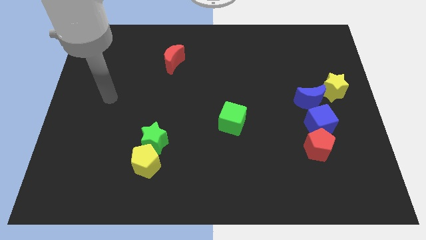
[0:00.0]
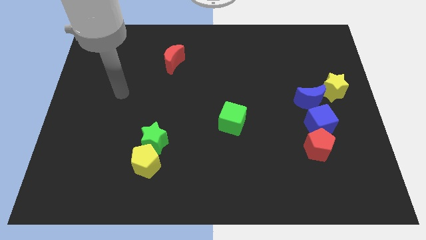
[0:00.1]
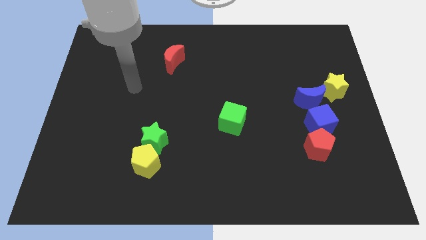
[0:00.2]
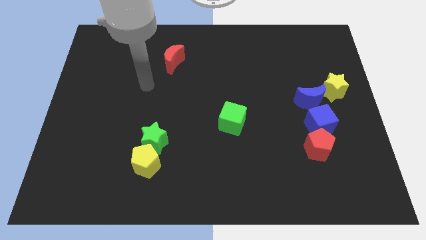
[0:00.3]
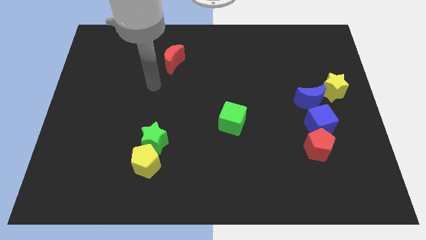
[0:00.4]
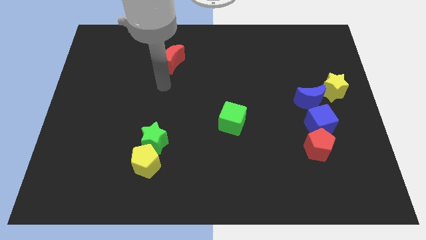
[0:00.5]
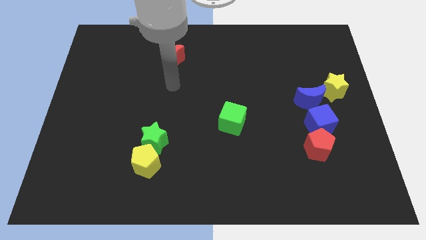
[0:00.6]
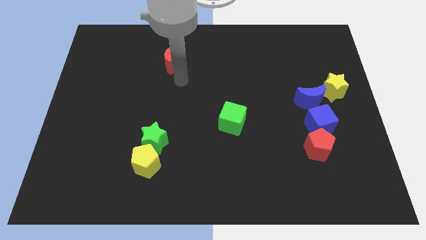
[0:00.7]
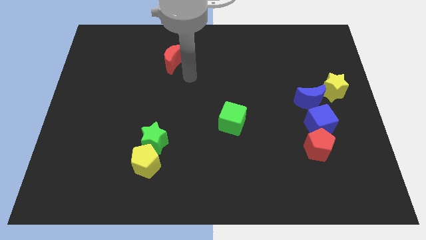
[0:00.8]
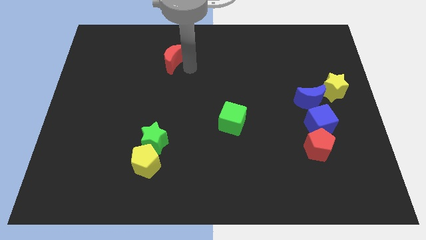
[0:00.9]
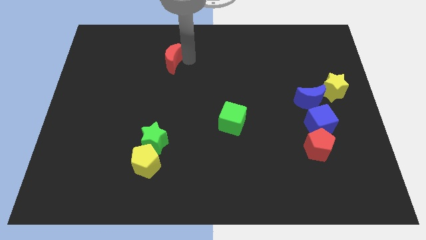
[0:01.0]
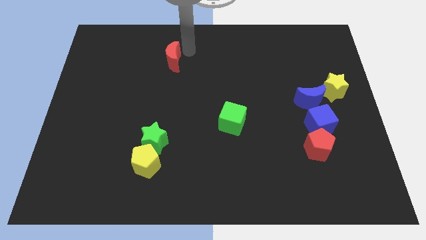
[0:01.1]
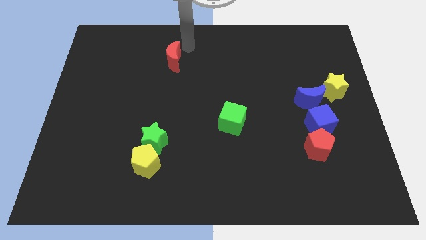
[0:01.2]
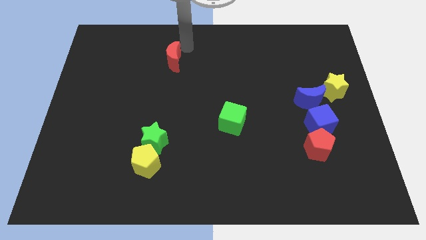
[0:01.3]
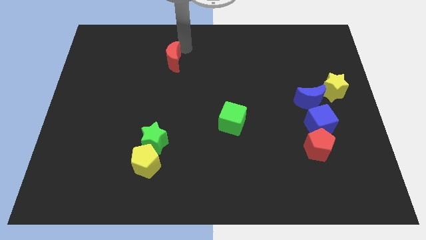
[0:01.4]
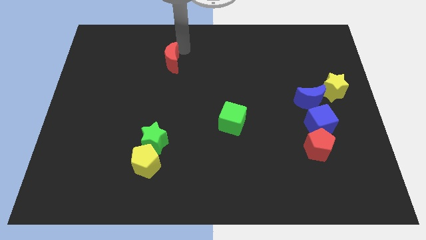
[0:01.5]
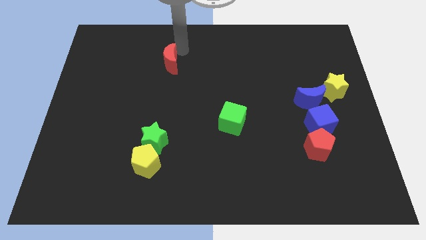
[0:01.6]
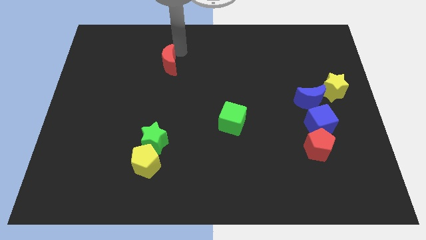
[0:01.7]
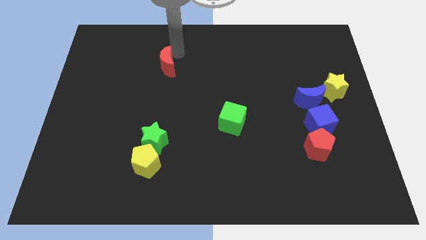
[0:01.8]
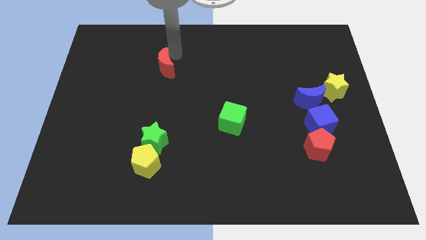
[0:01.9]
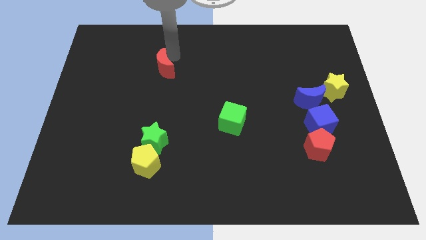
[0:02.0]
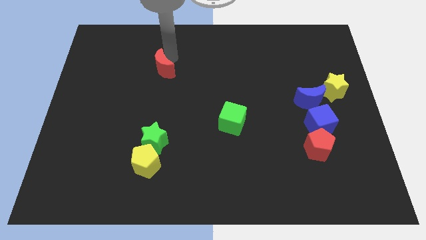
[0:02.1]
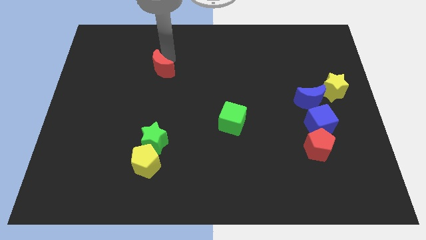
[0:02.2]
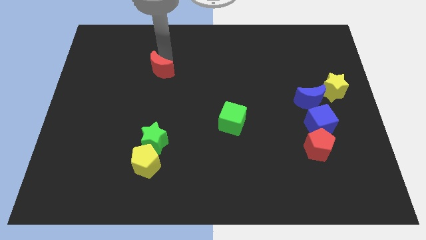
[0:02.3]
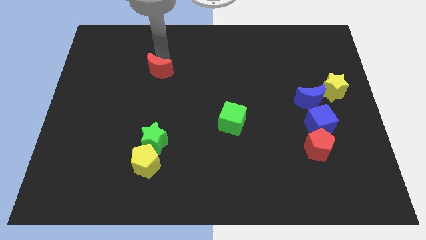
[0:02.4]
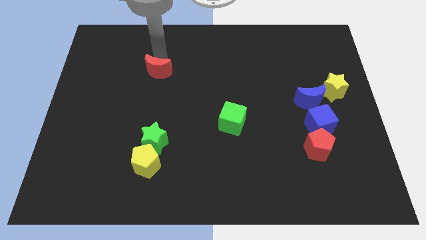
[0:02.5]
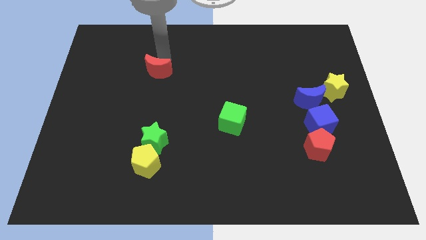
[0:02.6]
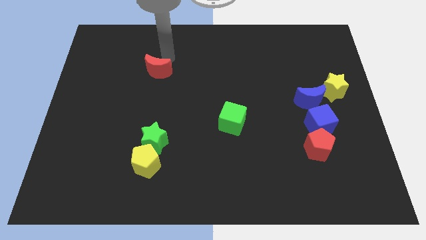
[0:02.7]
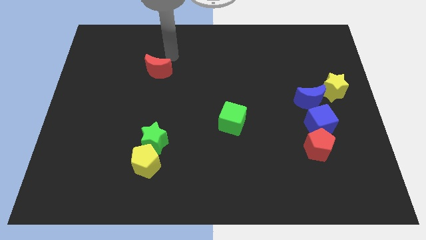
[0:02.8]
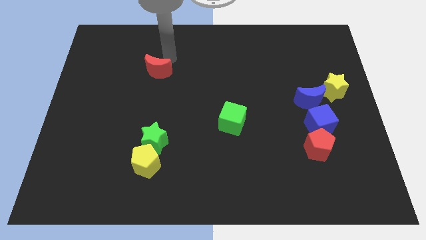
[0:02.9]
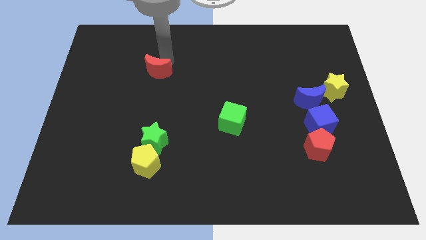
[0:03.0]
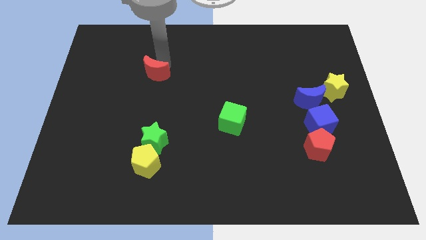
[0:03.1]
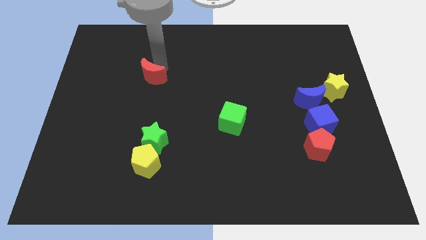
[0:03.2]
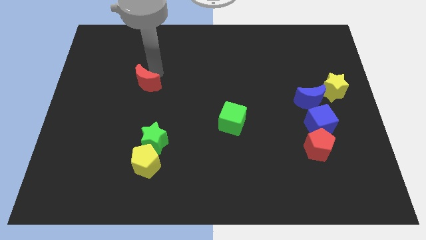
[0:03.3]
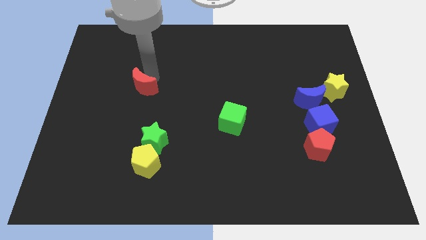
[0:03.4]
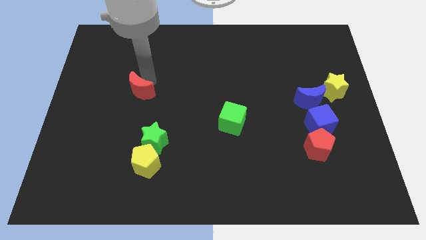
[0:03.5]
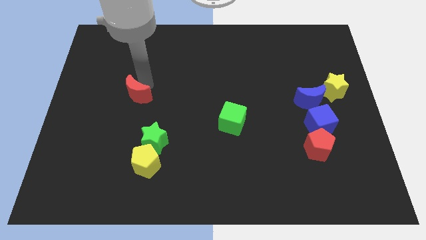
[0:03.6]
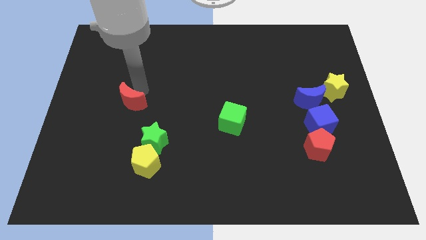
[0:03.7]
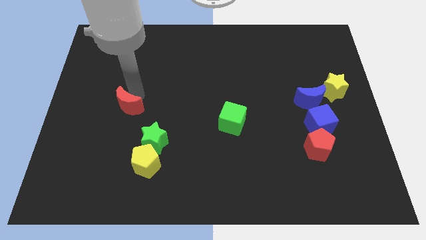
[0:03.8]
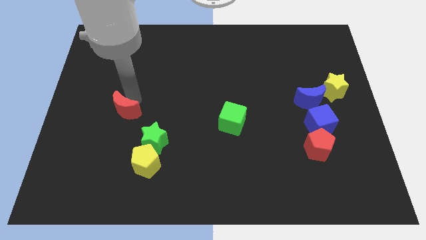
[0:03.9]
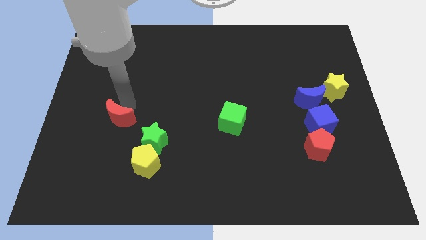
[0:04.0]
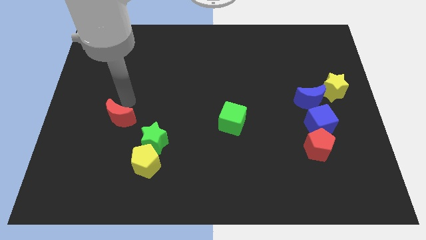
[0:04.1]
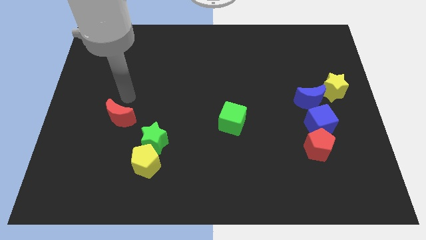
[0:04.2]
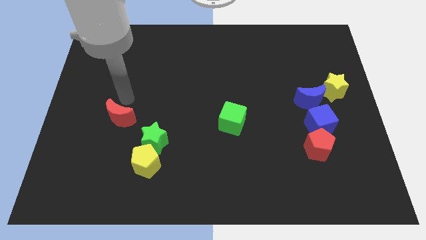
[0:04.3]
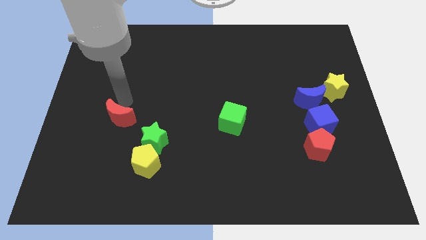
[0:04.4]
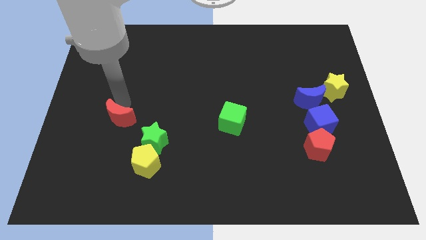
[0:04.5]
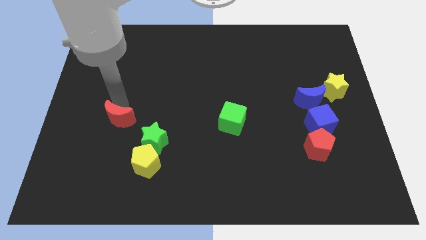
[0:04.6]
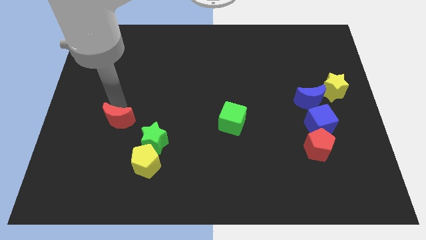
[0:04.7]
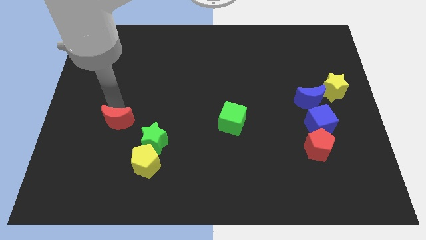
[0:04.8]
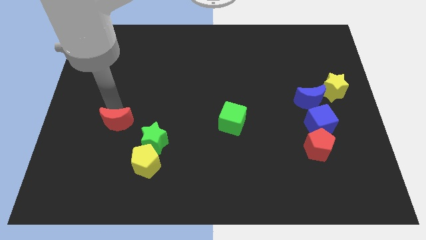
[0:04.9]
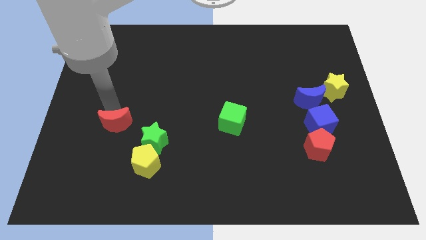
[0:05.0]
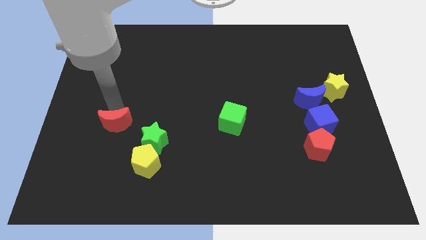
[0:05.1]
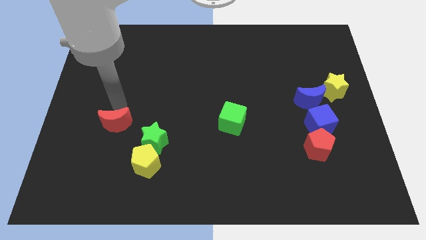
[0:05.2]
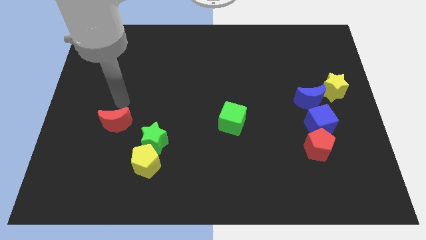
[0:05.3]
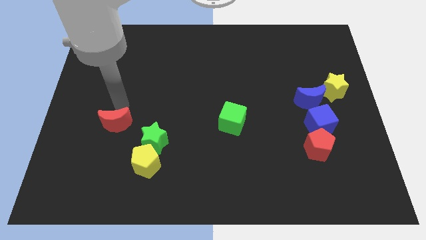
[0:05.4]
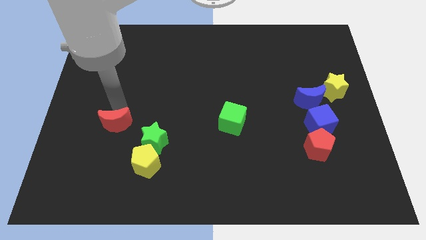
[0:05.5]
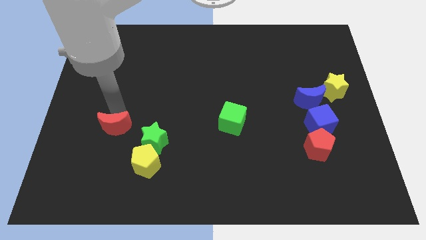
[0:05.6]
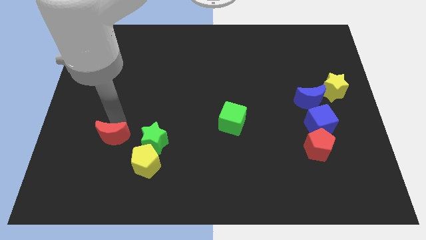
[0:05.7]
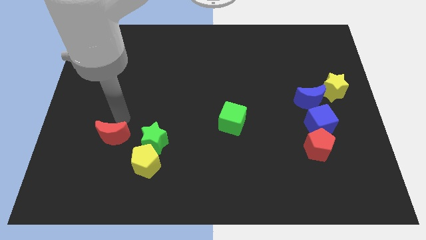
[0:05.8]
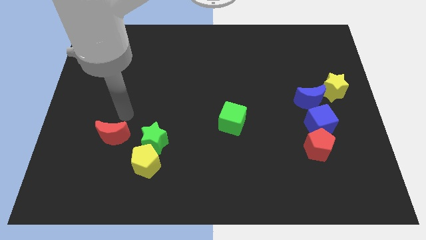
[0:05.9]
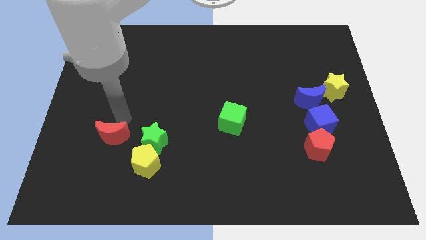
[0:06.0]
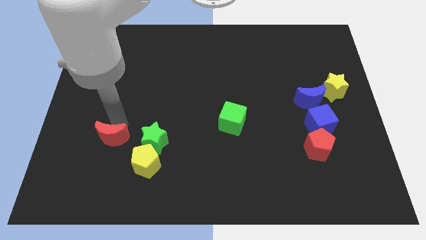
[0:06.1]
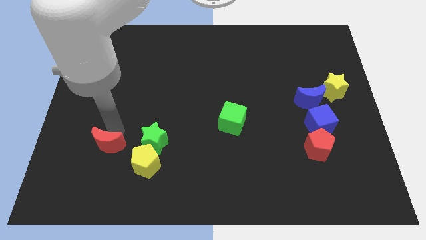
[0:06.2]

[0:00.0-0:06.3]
put the red moon just left of the yellow pentagon

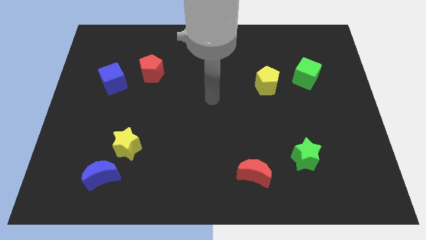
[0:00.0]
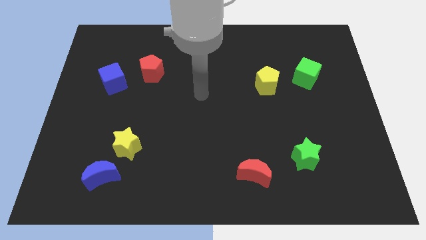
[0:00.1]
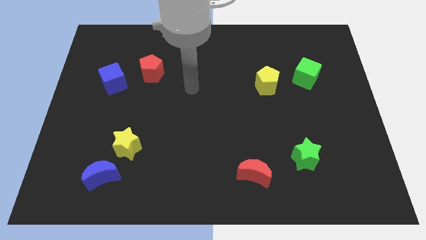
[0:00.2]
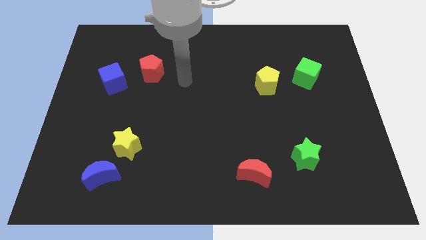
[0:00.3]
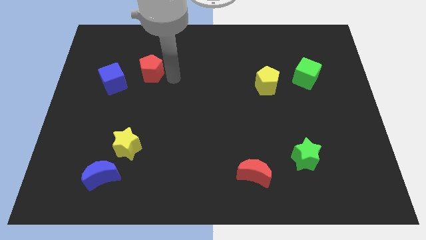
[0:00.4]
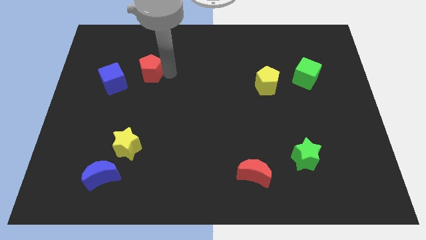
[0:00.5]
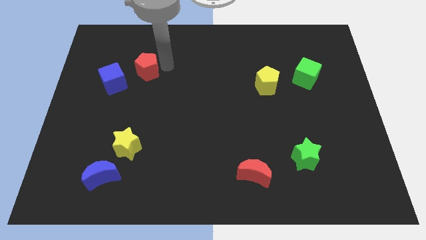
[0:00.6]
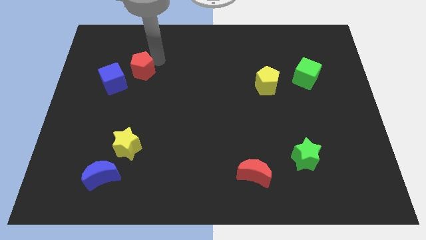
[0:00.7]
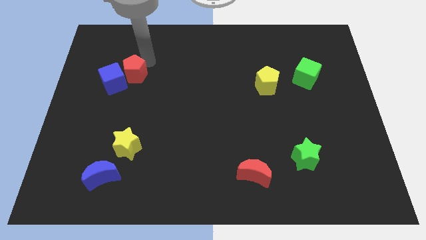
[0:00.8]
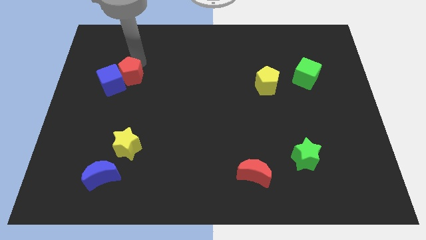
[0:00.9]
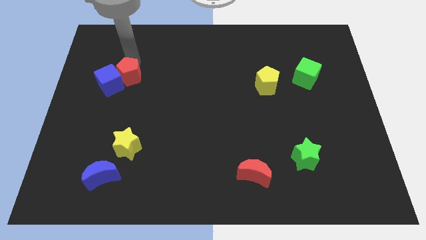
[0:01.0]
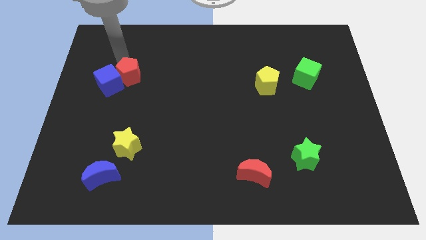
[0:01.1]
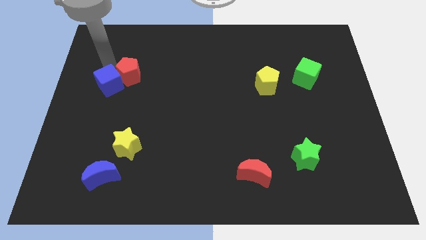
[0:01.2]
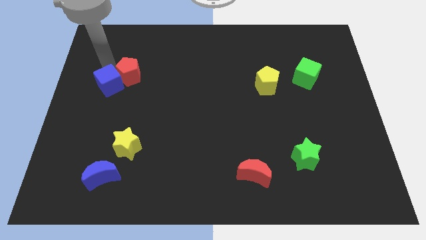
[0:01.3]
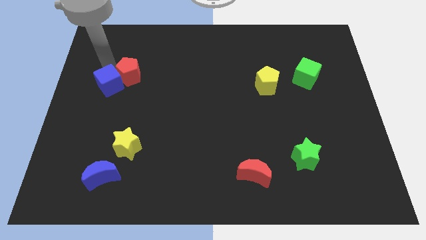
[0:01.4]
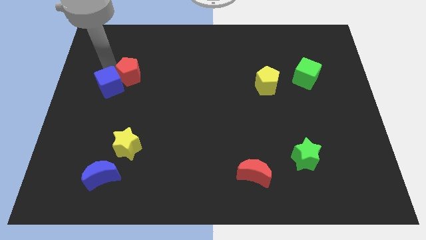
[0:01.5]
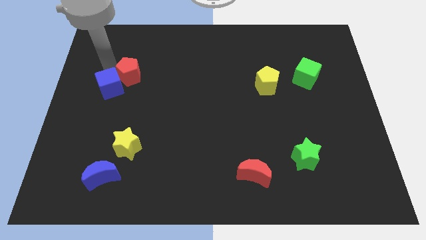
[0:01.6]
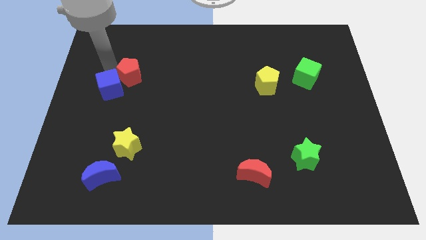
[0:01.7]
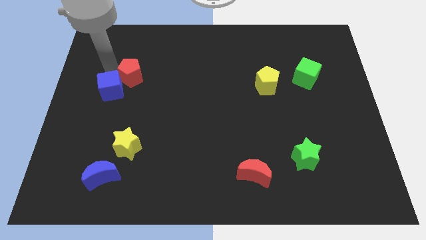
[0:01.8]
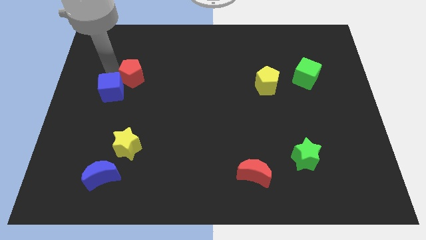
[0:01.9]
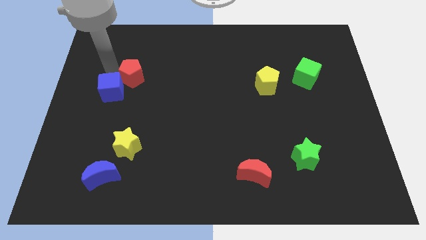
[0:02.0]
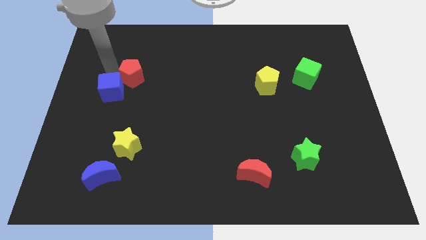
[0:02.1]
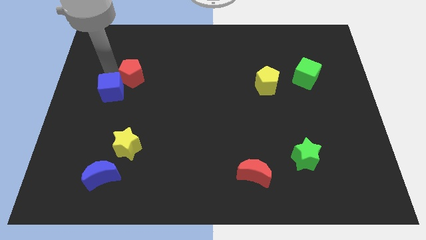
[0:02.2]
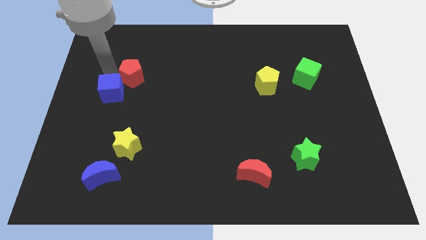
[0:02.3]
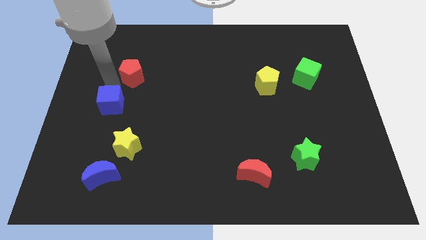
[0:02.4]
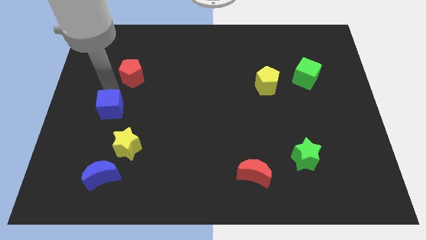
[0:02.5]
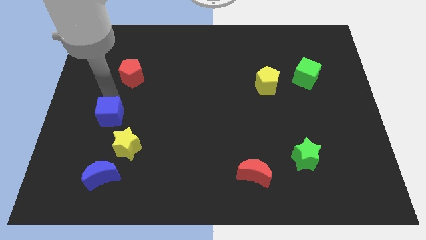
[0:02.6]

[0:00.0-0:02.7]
push the blue cube above the blue moon
